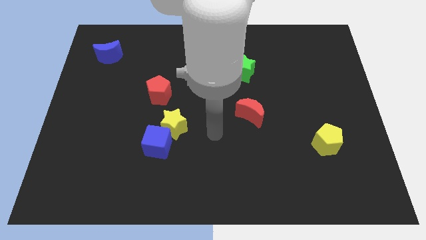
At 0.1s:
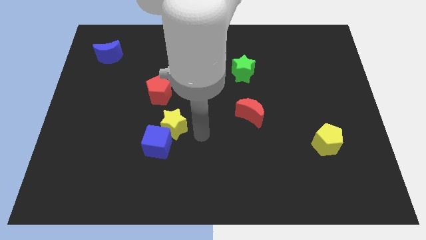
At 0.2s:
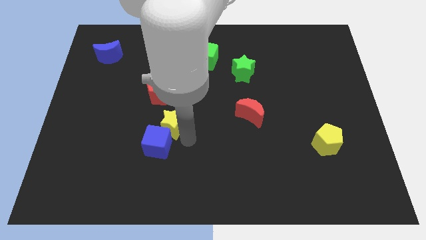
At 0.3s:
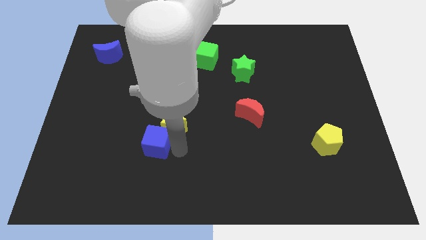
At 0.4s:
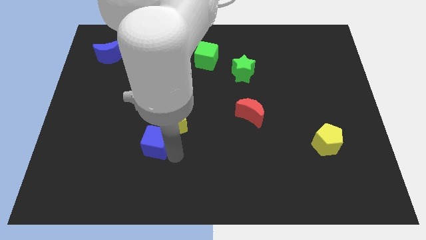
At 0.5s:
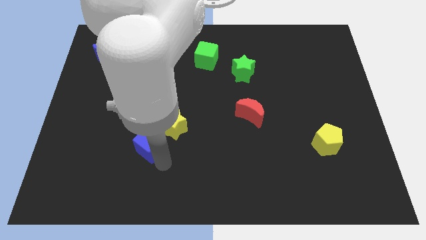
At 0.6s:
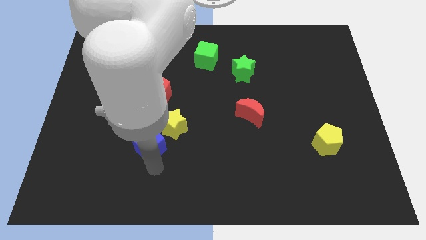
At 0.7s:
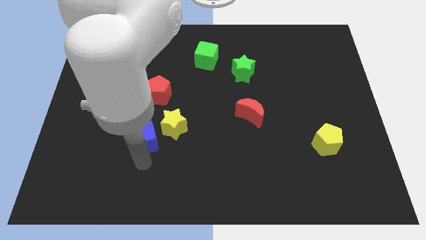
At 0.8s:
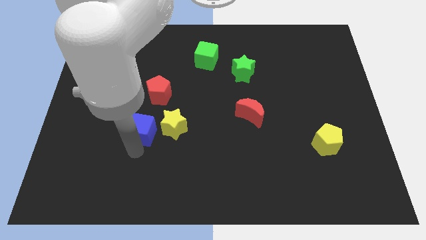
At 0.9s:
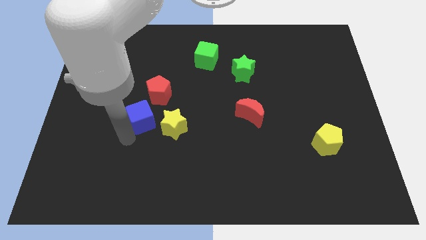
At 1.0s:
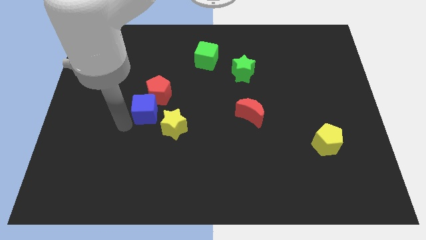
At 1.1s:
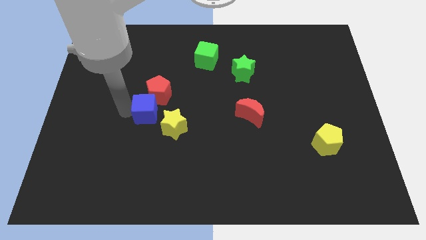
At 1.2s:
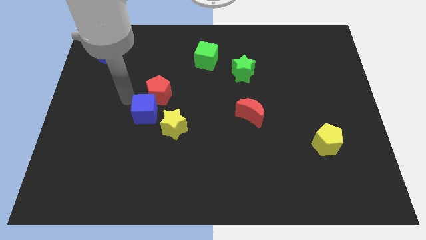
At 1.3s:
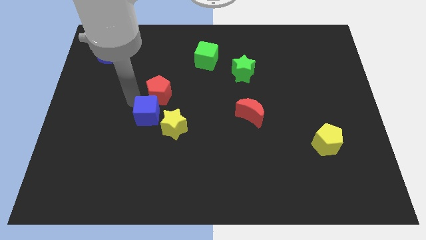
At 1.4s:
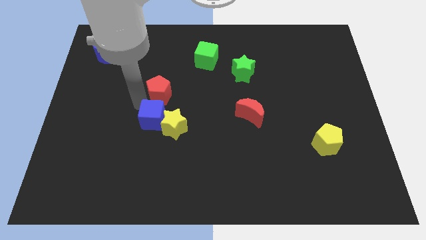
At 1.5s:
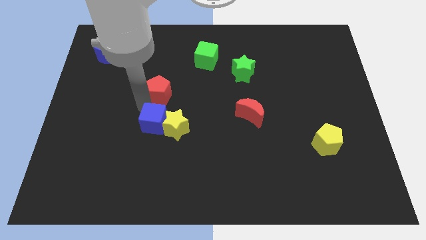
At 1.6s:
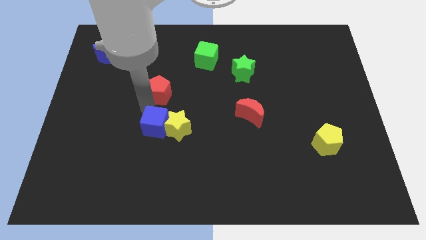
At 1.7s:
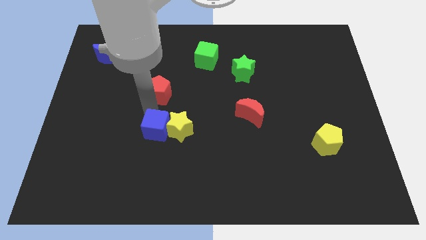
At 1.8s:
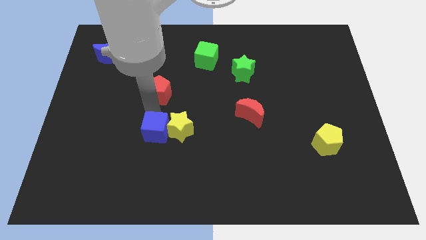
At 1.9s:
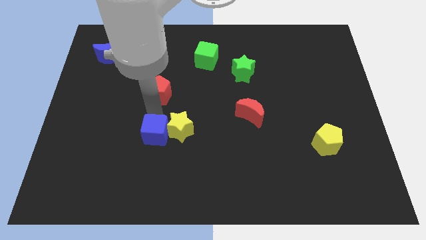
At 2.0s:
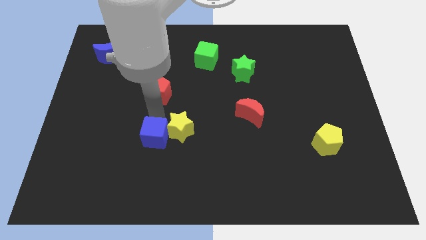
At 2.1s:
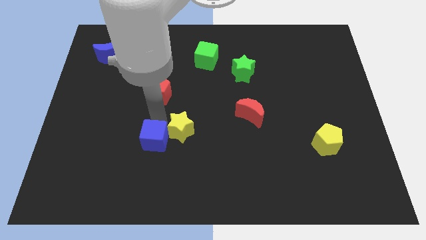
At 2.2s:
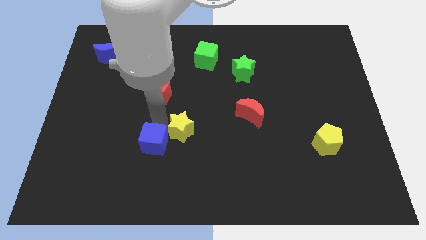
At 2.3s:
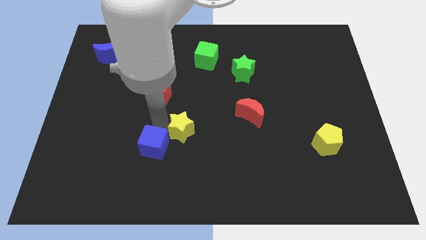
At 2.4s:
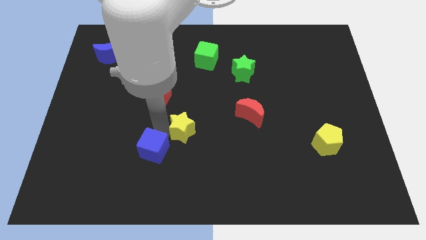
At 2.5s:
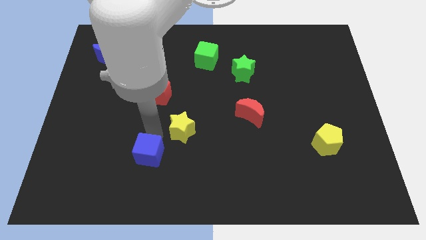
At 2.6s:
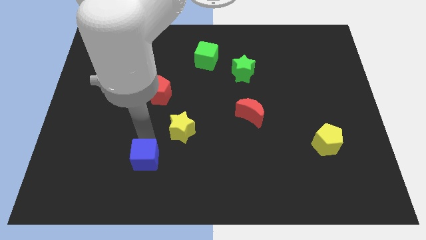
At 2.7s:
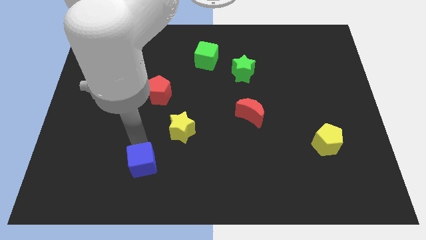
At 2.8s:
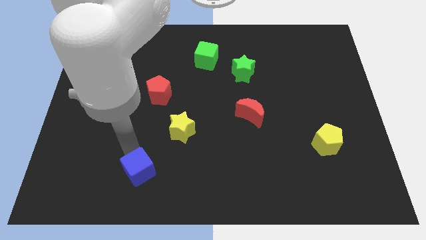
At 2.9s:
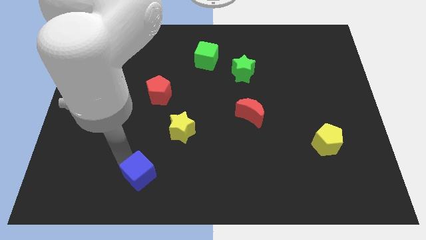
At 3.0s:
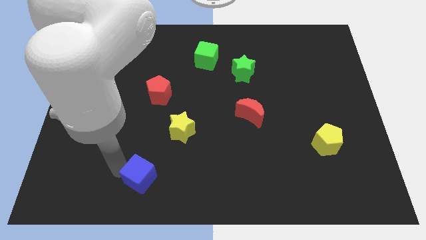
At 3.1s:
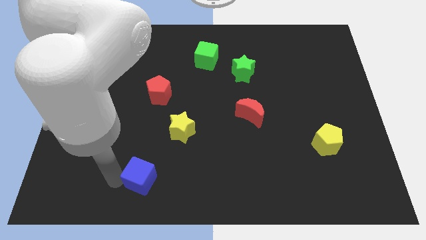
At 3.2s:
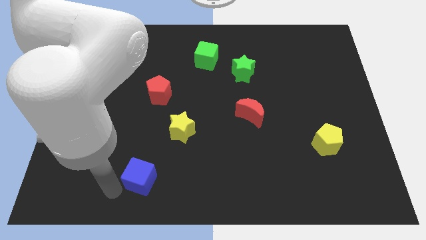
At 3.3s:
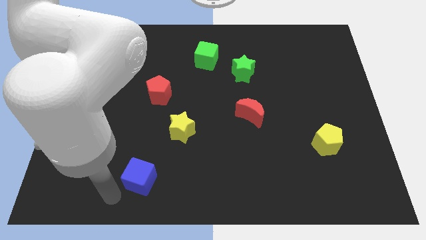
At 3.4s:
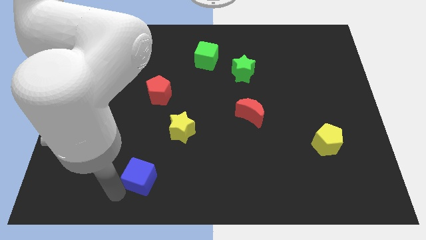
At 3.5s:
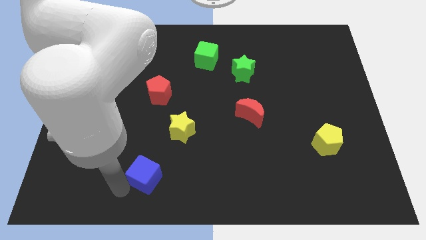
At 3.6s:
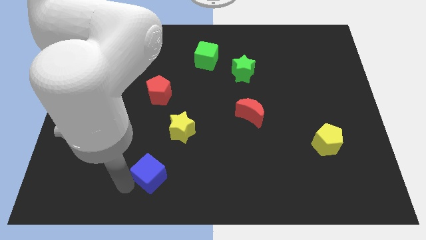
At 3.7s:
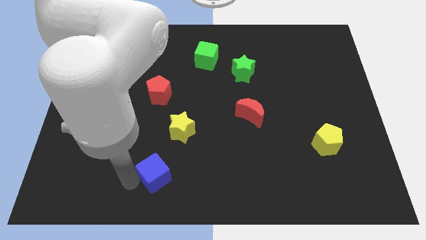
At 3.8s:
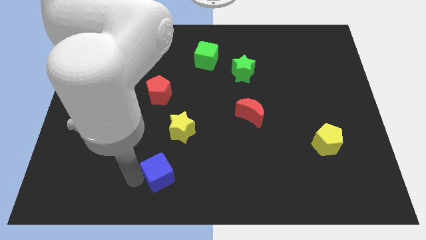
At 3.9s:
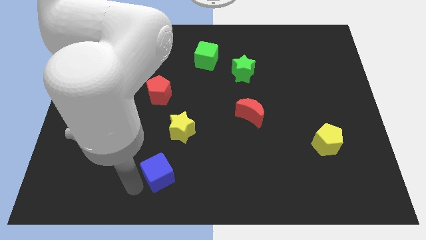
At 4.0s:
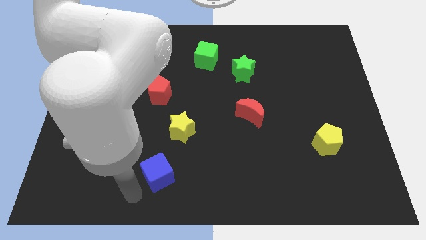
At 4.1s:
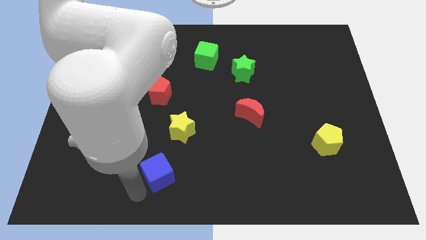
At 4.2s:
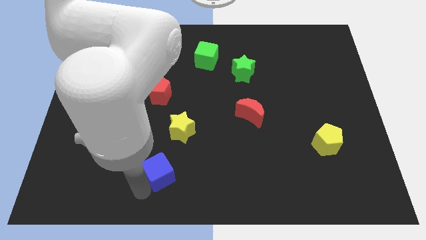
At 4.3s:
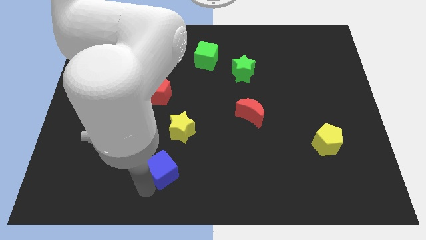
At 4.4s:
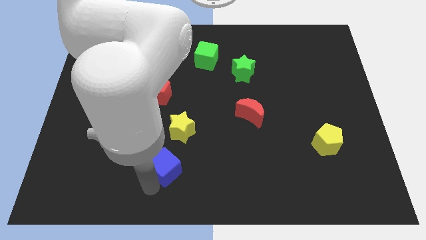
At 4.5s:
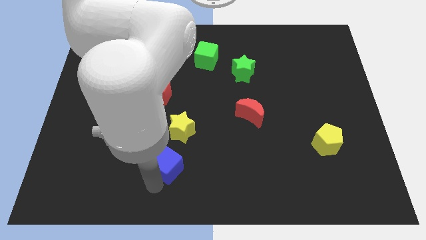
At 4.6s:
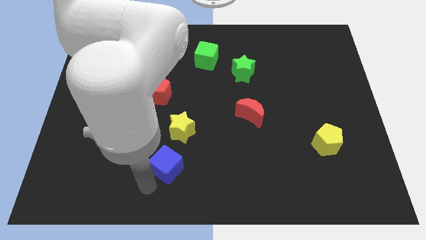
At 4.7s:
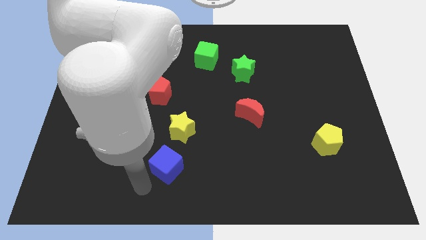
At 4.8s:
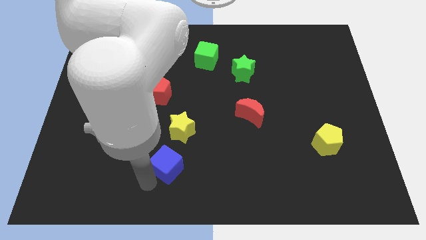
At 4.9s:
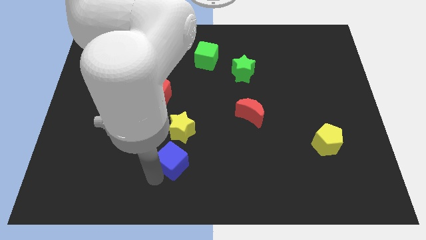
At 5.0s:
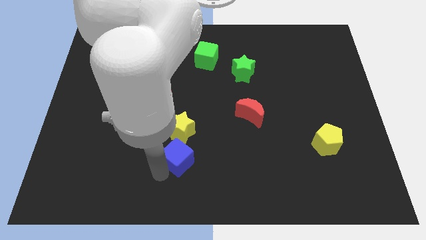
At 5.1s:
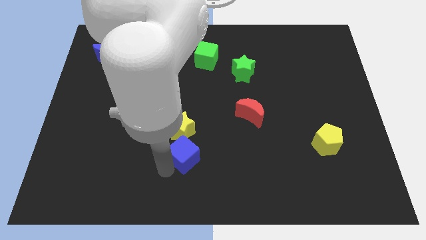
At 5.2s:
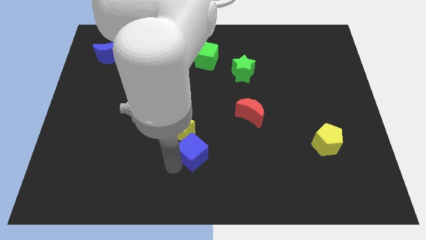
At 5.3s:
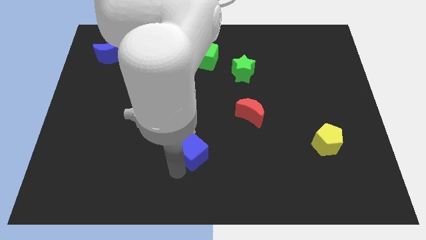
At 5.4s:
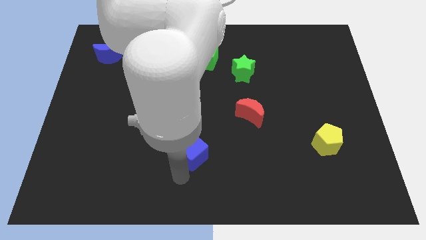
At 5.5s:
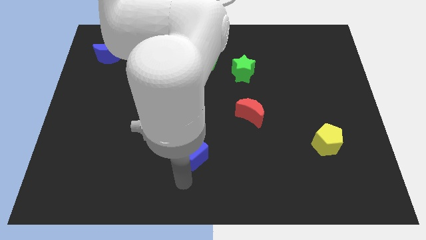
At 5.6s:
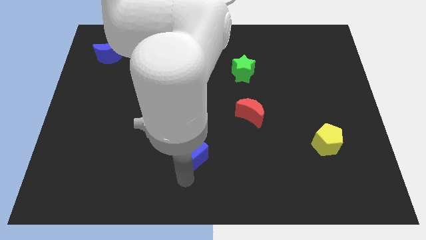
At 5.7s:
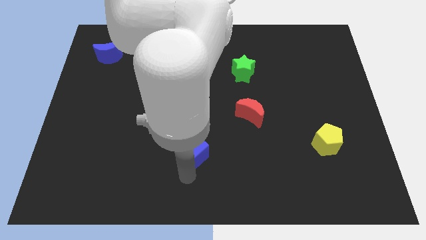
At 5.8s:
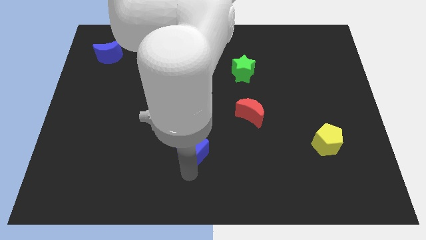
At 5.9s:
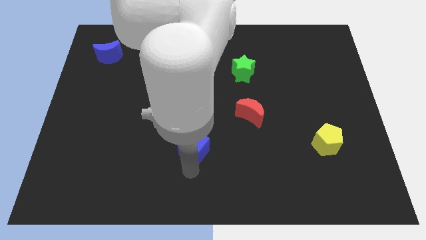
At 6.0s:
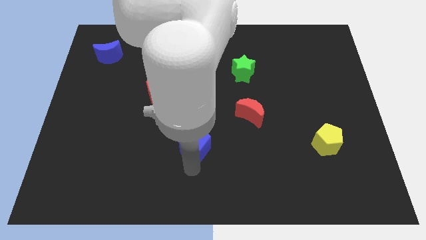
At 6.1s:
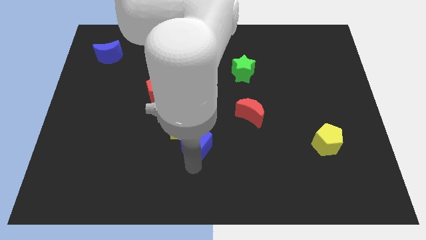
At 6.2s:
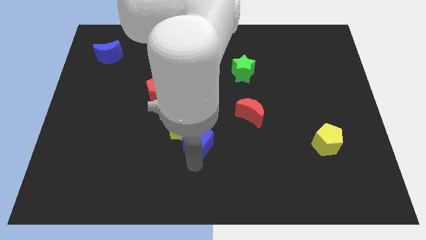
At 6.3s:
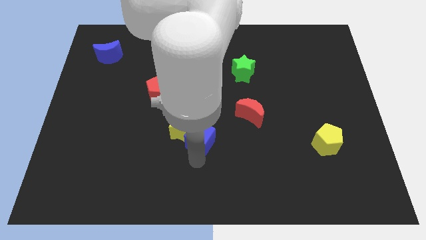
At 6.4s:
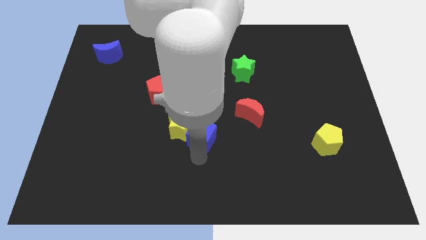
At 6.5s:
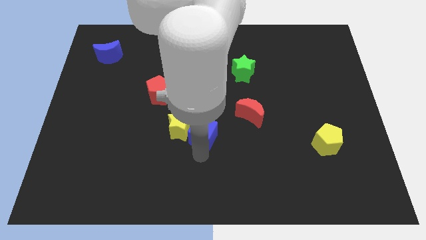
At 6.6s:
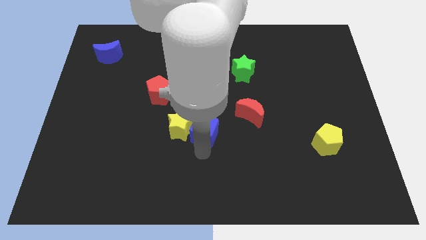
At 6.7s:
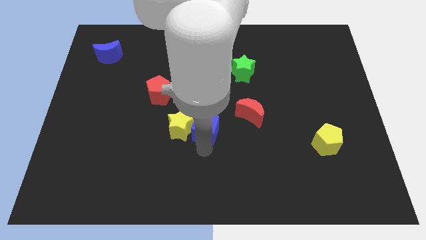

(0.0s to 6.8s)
slide the blue cube to the left of the red moon
